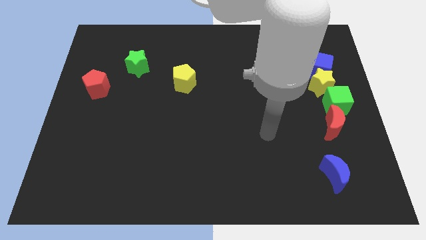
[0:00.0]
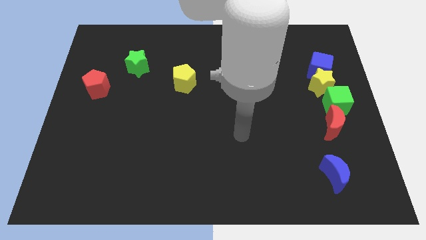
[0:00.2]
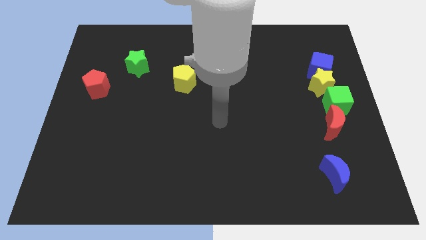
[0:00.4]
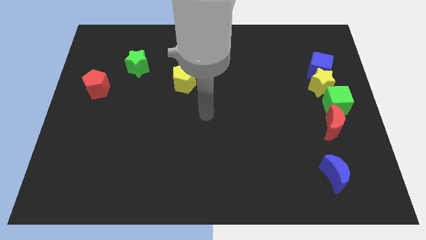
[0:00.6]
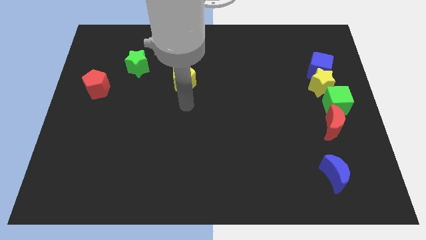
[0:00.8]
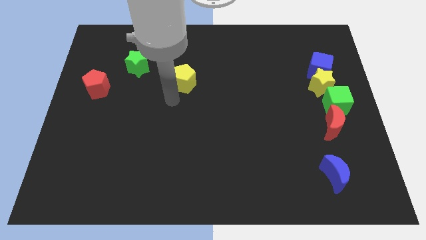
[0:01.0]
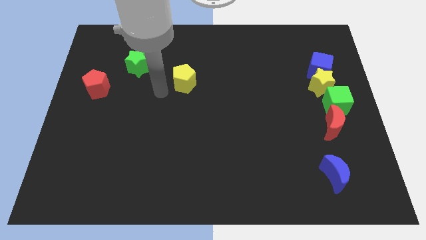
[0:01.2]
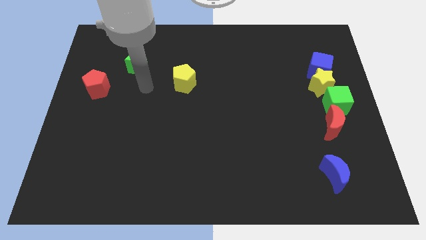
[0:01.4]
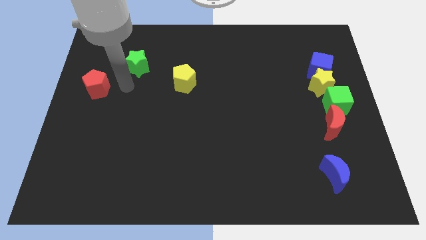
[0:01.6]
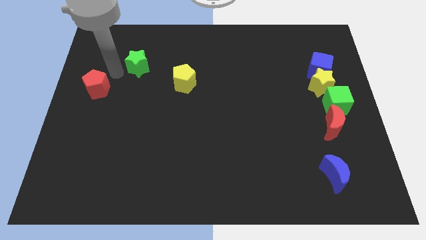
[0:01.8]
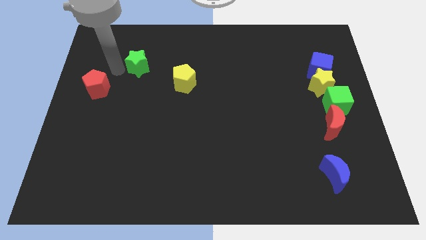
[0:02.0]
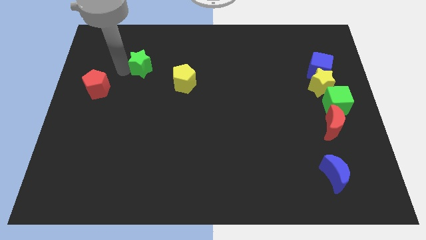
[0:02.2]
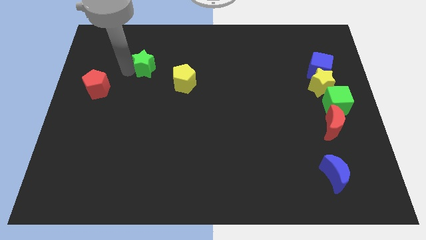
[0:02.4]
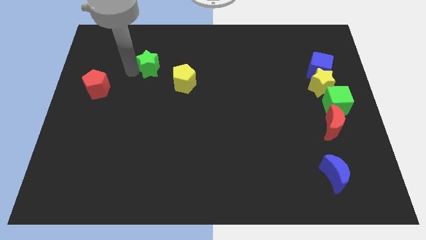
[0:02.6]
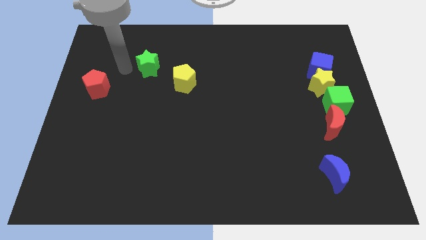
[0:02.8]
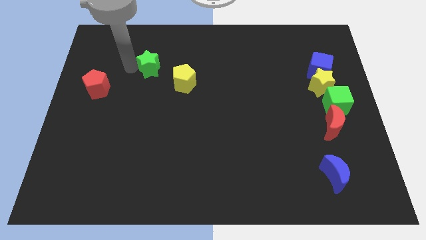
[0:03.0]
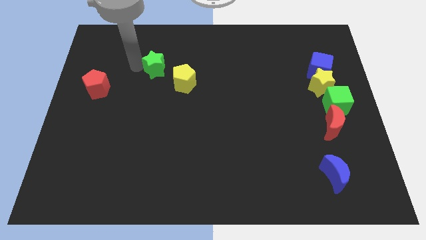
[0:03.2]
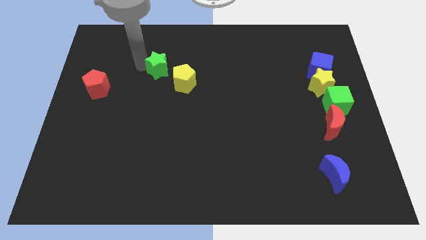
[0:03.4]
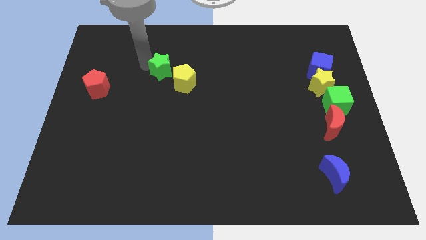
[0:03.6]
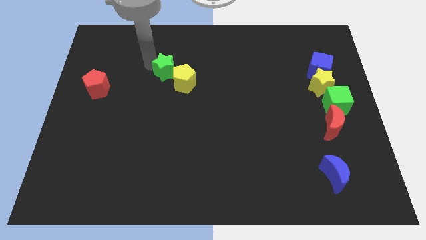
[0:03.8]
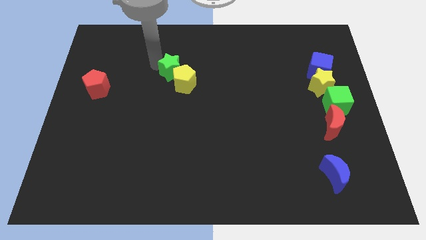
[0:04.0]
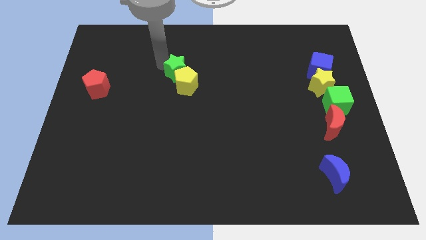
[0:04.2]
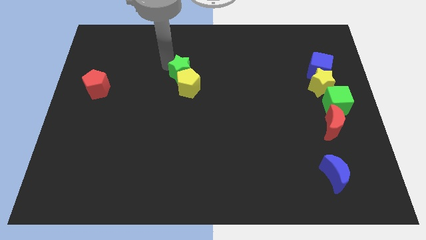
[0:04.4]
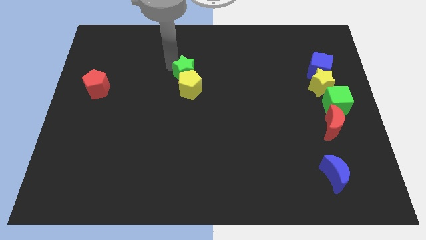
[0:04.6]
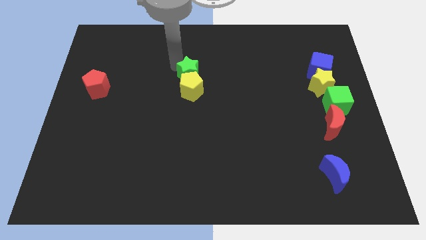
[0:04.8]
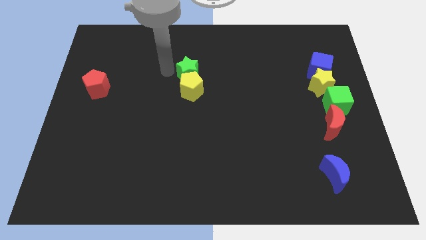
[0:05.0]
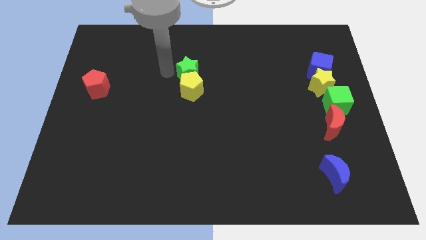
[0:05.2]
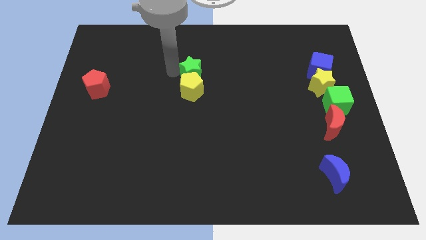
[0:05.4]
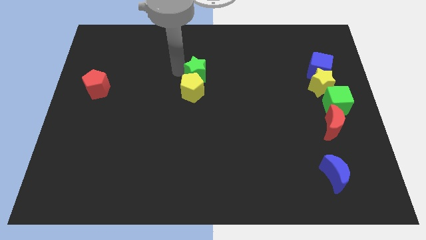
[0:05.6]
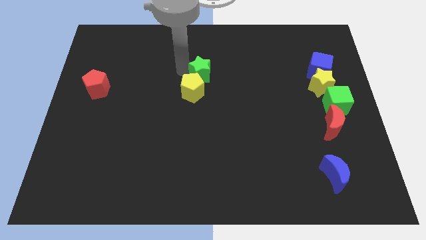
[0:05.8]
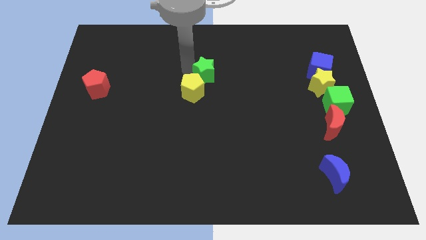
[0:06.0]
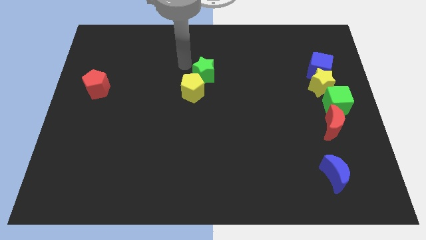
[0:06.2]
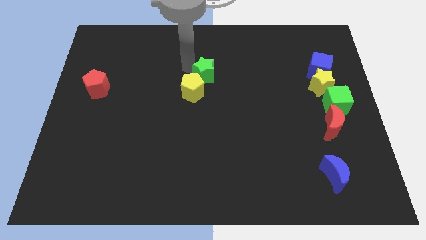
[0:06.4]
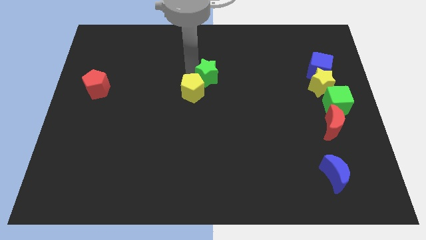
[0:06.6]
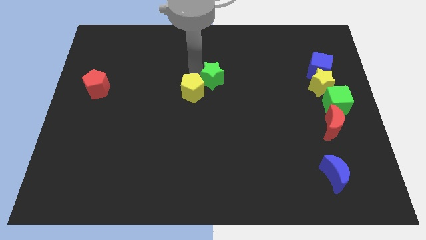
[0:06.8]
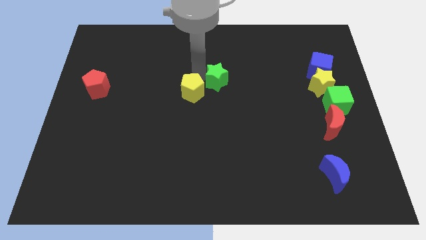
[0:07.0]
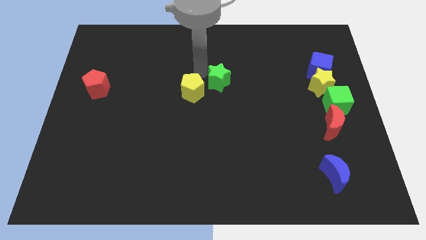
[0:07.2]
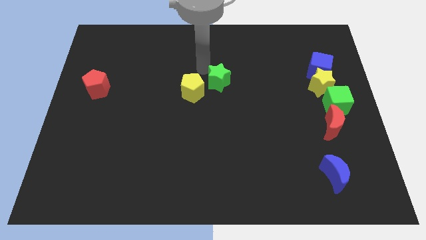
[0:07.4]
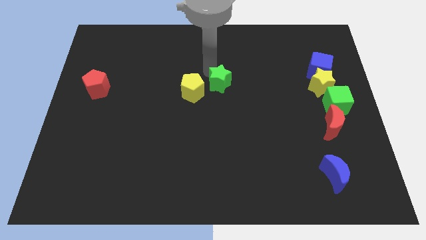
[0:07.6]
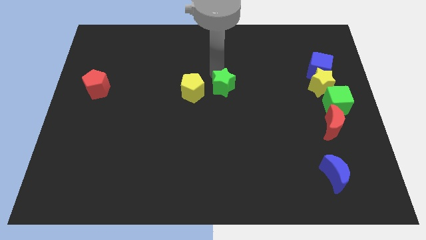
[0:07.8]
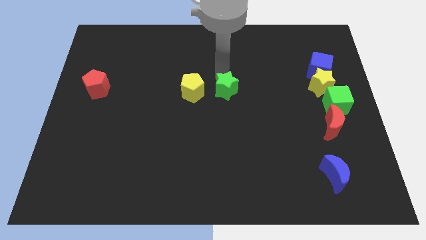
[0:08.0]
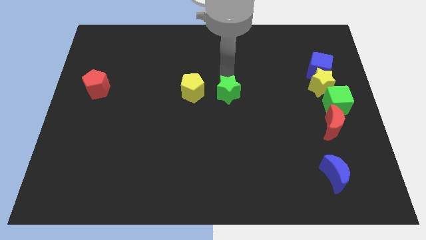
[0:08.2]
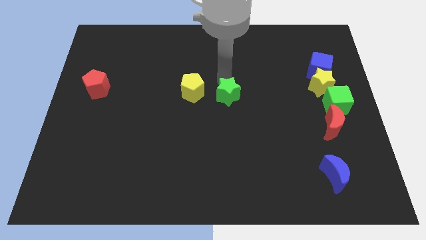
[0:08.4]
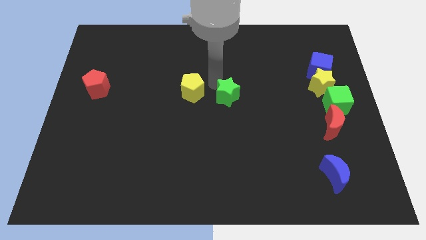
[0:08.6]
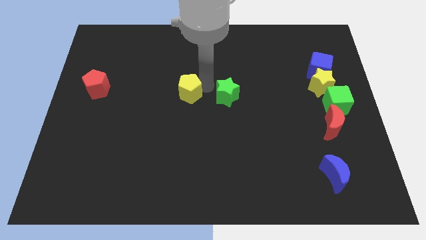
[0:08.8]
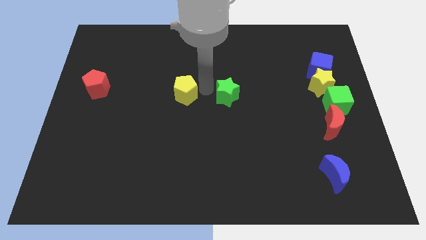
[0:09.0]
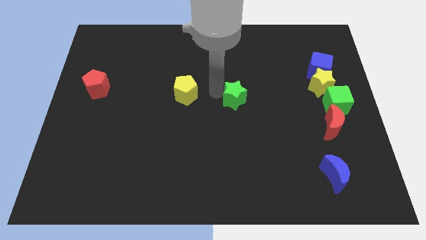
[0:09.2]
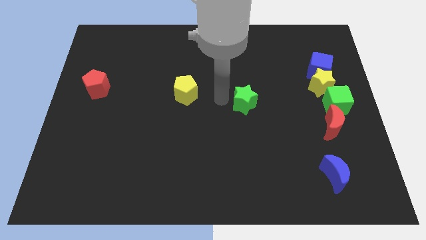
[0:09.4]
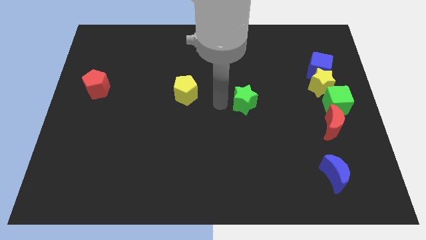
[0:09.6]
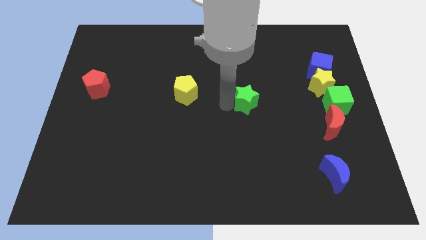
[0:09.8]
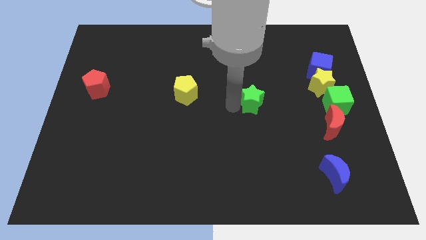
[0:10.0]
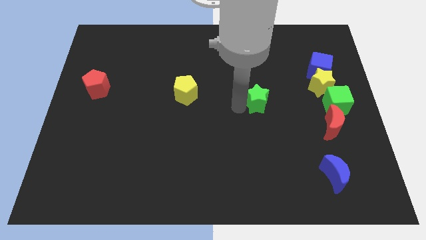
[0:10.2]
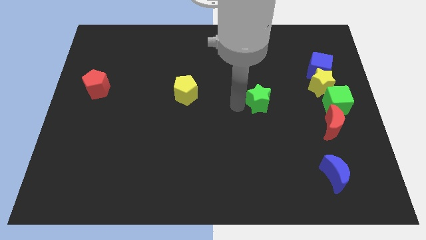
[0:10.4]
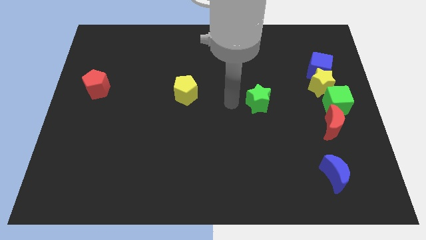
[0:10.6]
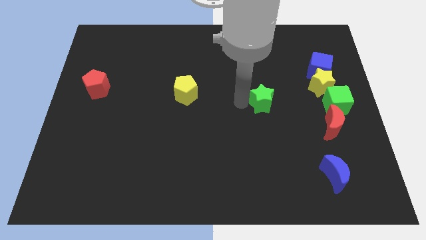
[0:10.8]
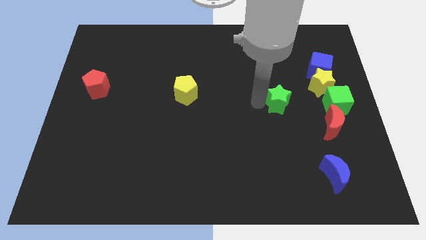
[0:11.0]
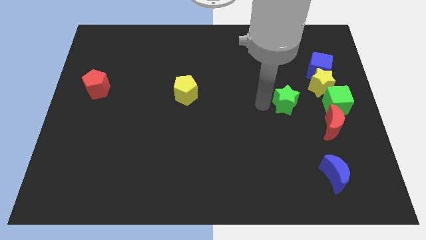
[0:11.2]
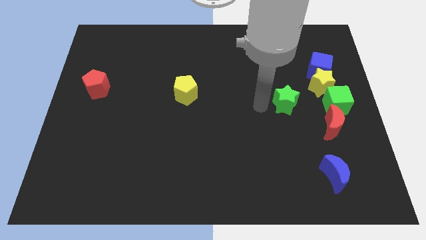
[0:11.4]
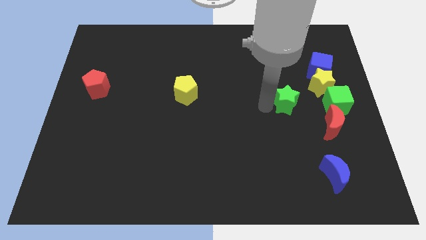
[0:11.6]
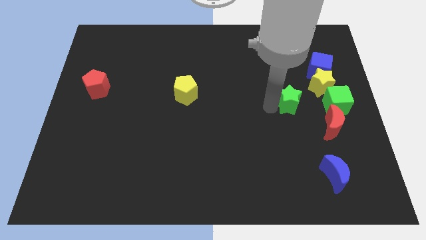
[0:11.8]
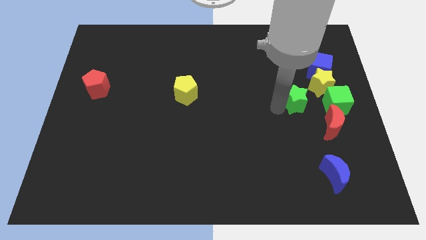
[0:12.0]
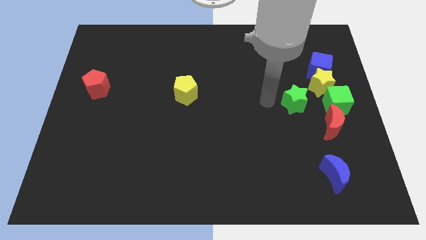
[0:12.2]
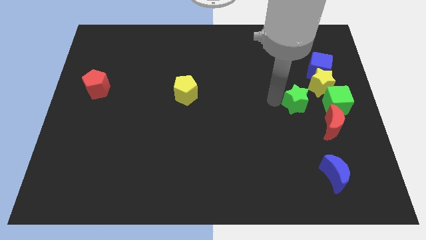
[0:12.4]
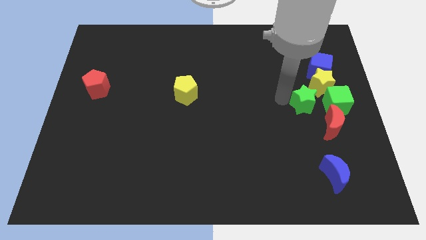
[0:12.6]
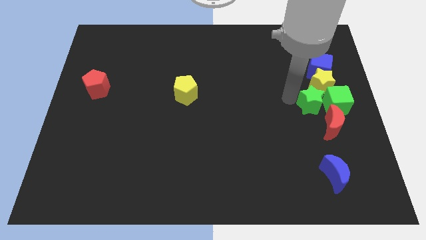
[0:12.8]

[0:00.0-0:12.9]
slide the green star towards the green cube

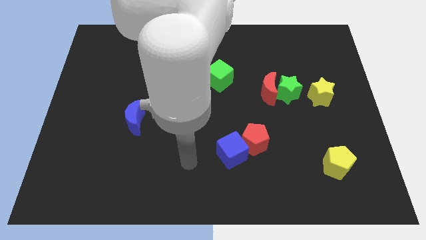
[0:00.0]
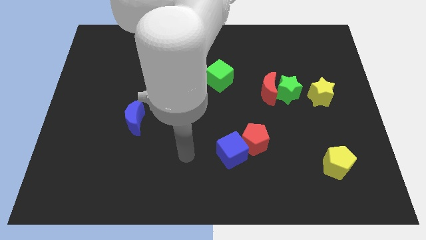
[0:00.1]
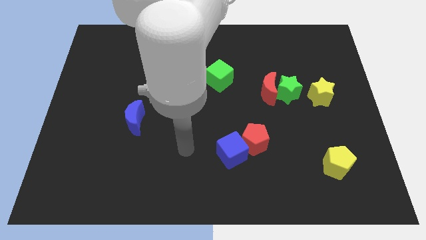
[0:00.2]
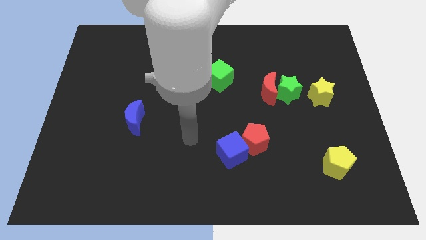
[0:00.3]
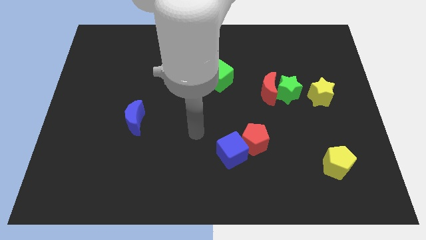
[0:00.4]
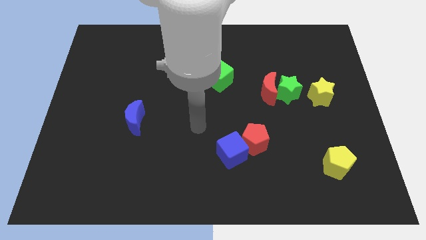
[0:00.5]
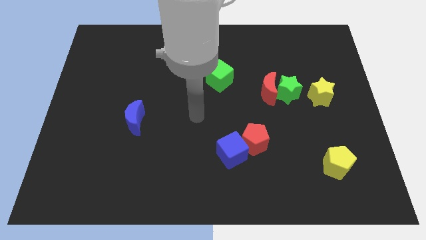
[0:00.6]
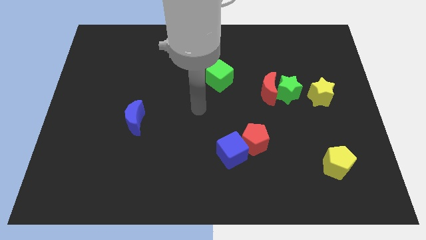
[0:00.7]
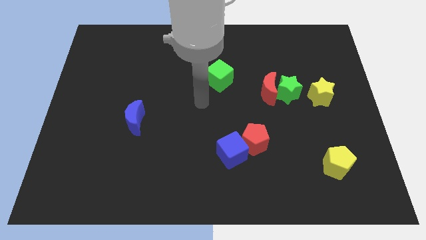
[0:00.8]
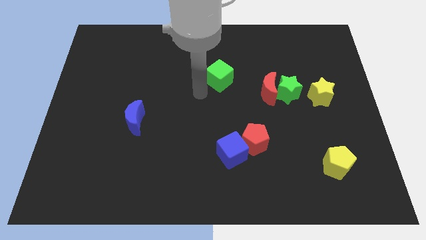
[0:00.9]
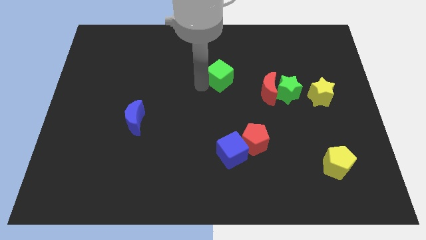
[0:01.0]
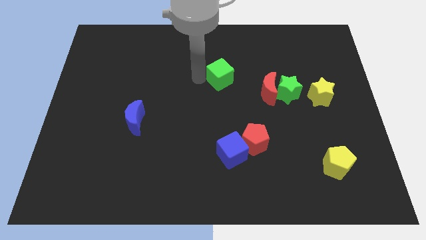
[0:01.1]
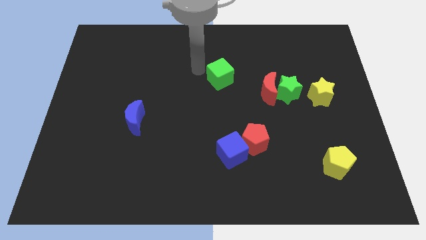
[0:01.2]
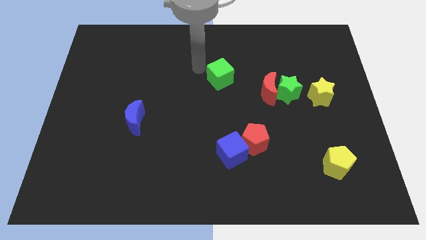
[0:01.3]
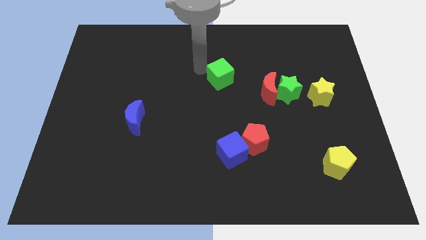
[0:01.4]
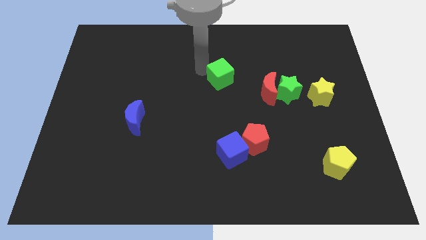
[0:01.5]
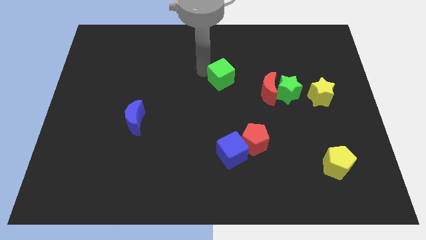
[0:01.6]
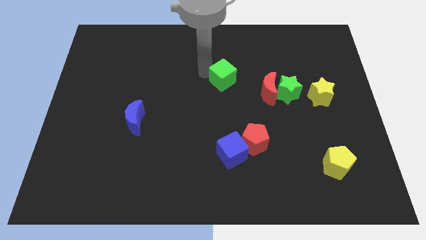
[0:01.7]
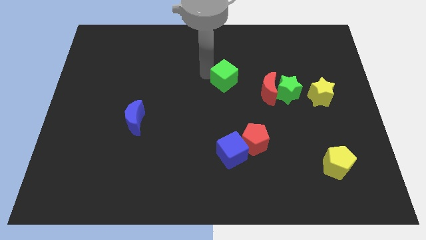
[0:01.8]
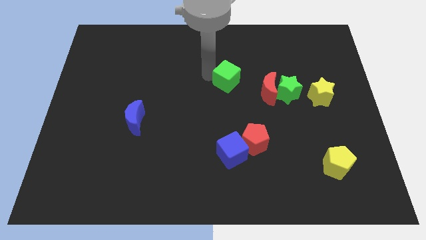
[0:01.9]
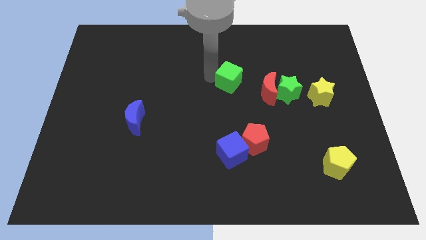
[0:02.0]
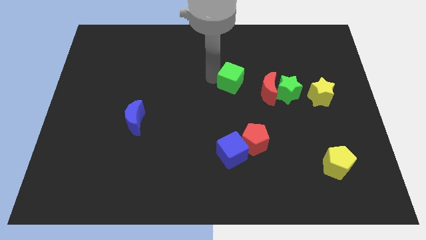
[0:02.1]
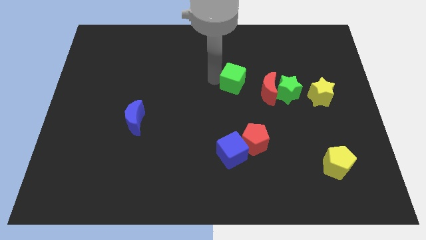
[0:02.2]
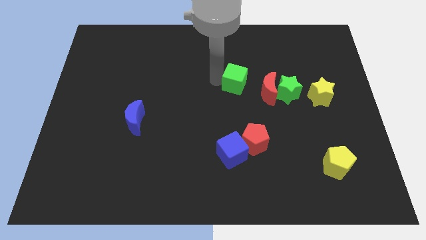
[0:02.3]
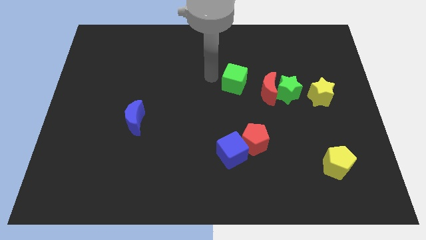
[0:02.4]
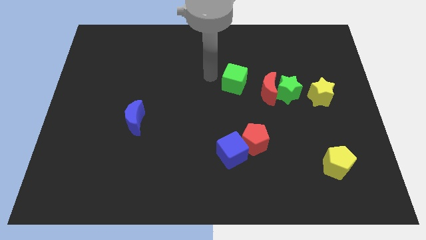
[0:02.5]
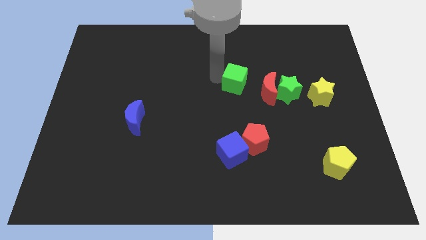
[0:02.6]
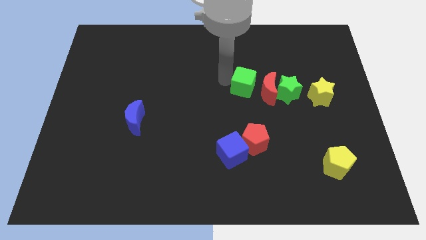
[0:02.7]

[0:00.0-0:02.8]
slide the green cube close to the red moon
